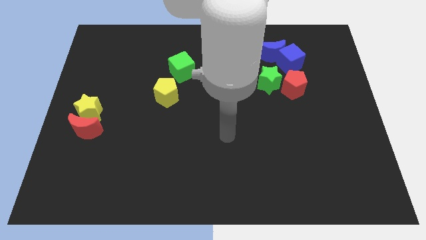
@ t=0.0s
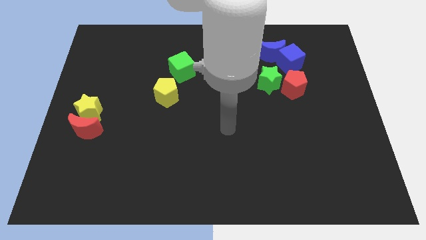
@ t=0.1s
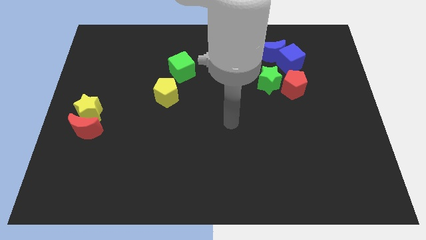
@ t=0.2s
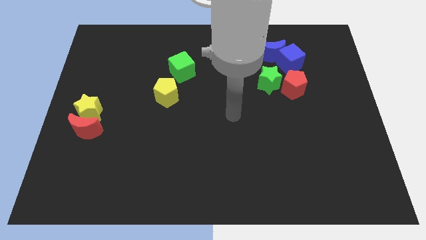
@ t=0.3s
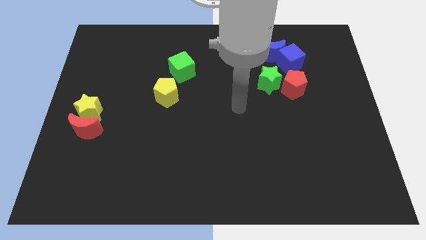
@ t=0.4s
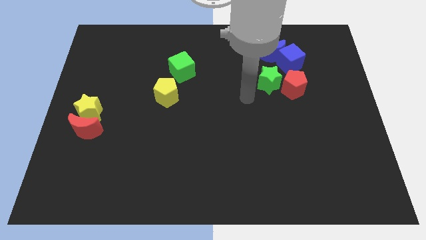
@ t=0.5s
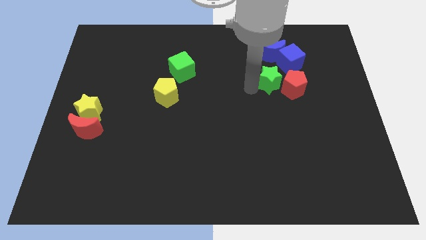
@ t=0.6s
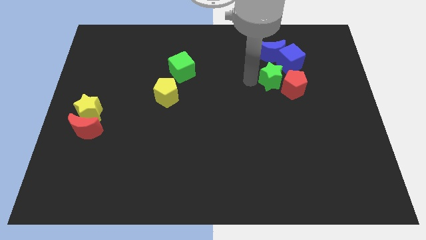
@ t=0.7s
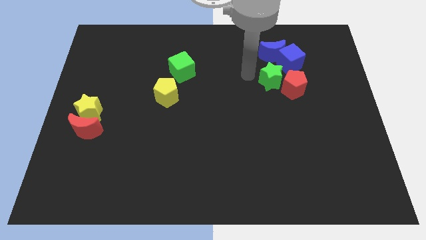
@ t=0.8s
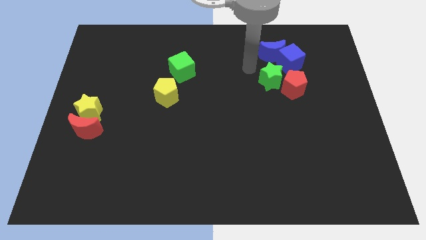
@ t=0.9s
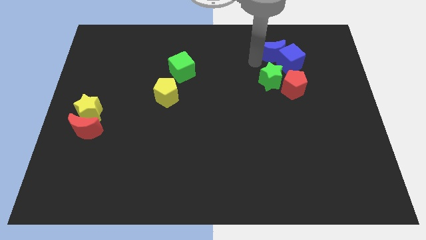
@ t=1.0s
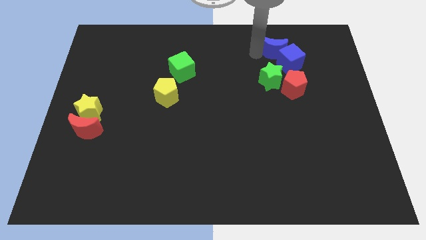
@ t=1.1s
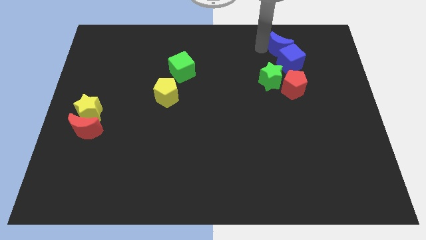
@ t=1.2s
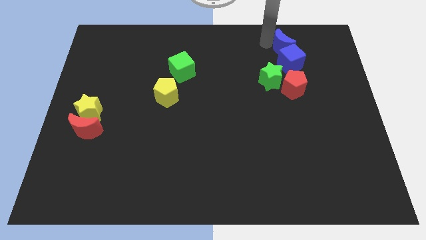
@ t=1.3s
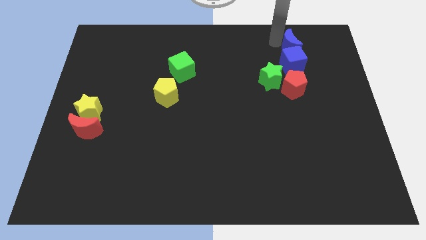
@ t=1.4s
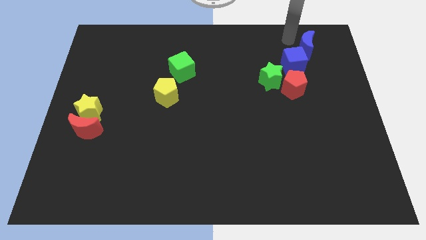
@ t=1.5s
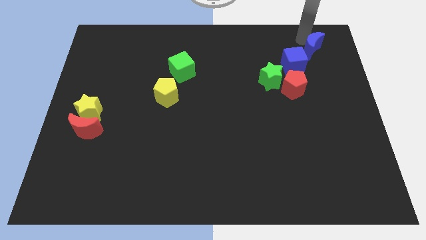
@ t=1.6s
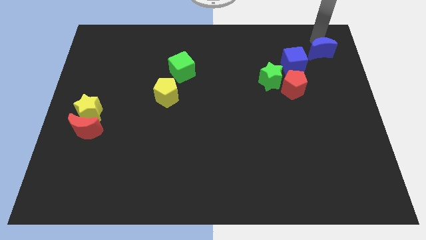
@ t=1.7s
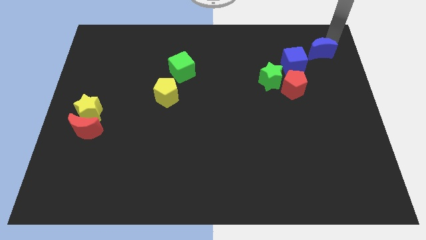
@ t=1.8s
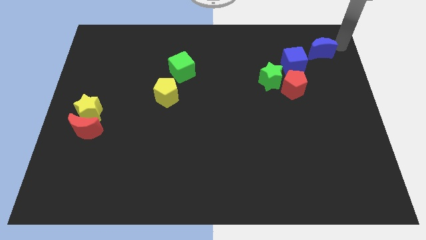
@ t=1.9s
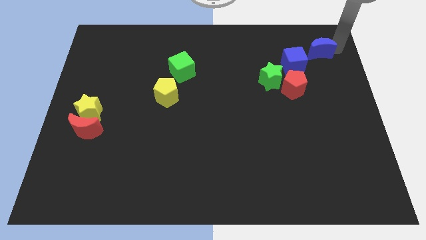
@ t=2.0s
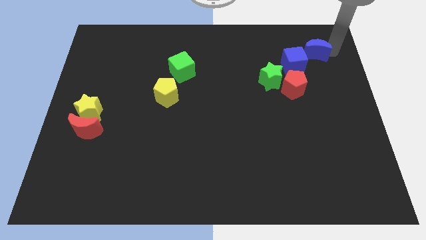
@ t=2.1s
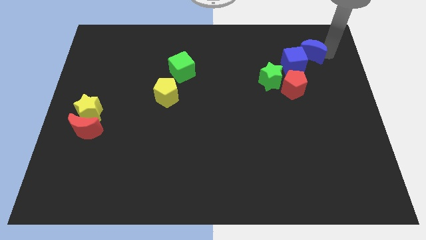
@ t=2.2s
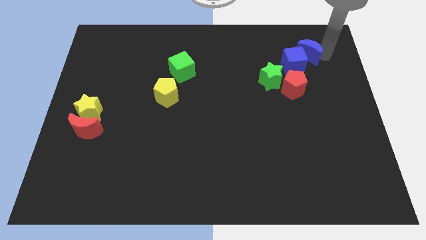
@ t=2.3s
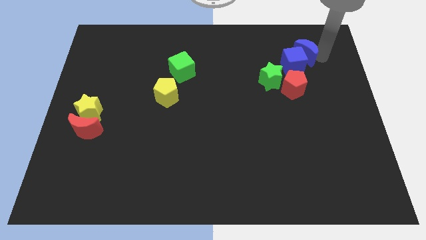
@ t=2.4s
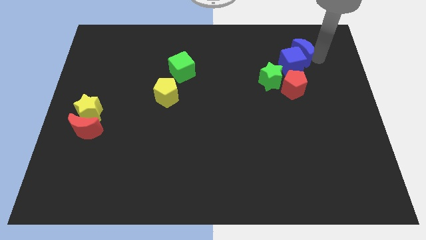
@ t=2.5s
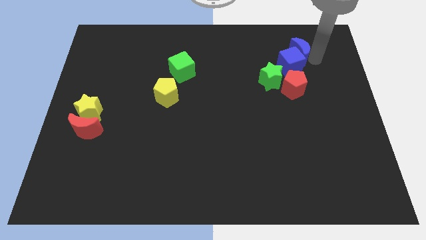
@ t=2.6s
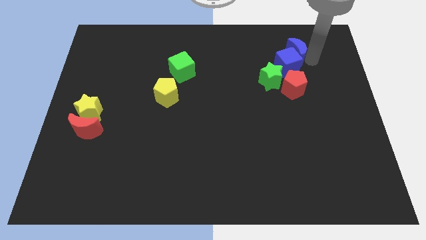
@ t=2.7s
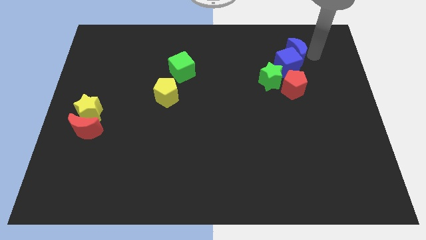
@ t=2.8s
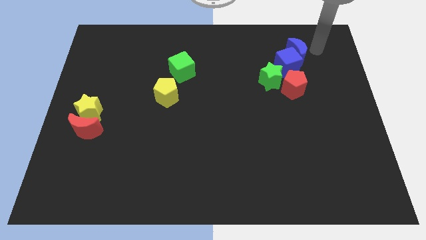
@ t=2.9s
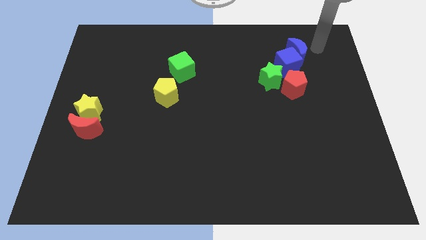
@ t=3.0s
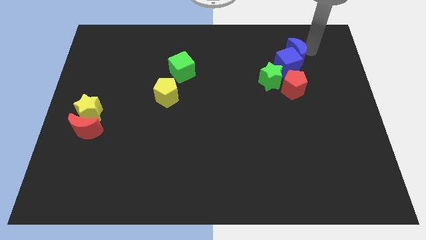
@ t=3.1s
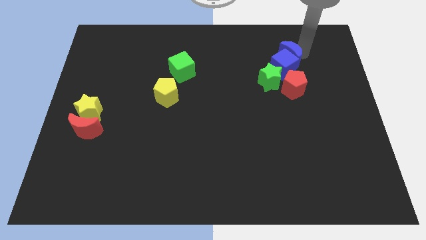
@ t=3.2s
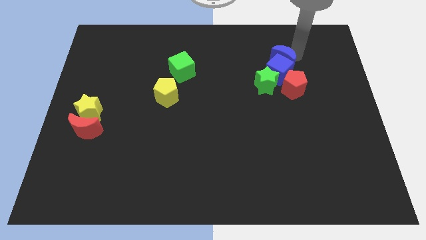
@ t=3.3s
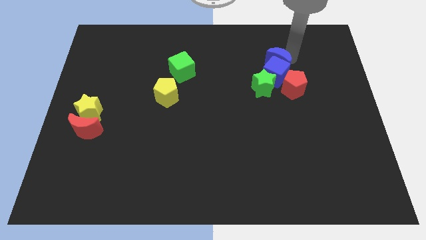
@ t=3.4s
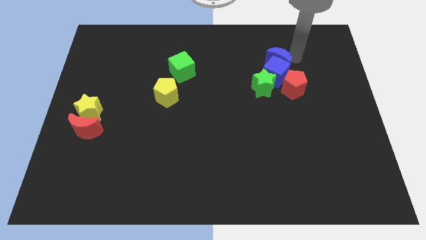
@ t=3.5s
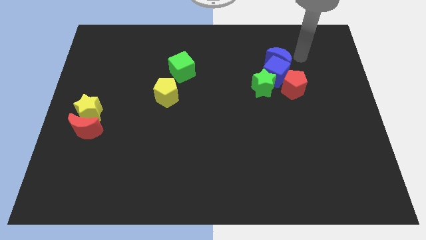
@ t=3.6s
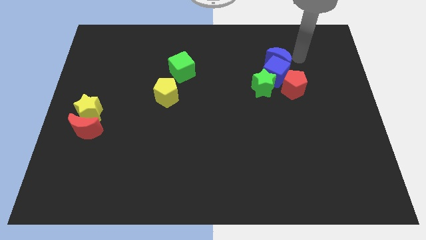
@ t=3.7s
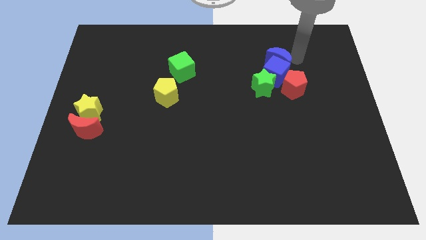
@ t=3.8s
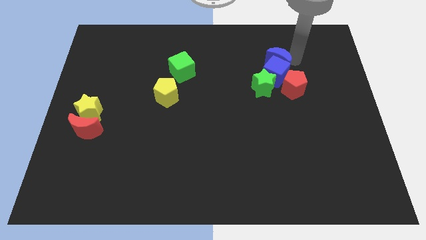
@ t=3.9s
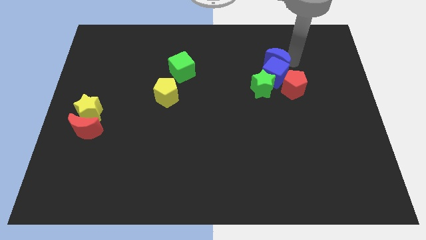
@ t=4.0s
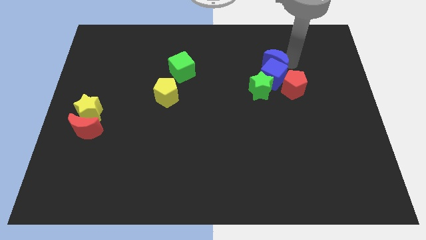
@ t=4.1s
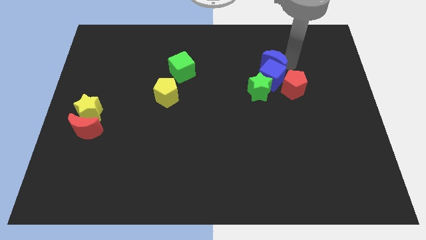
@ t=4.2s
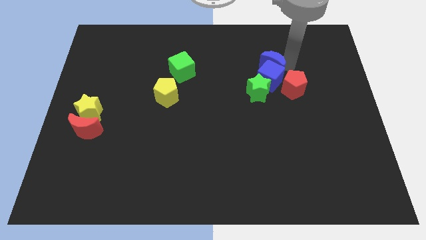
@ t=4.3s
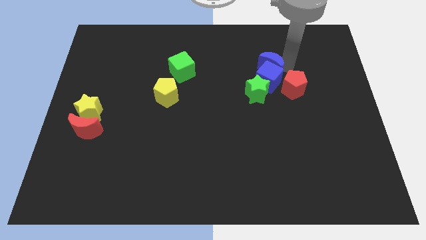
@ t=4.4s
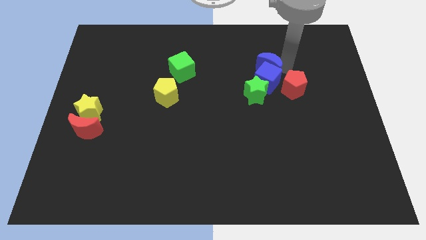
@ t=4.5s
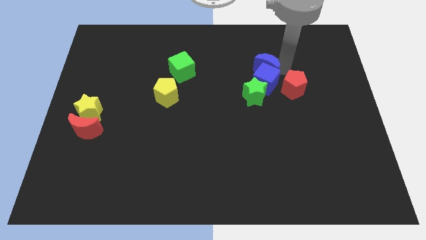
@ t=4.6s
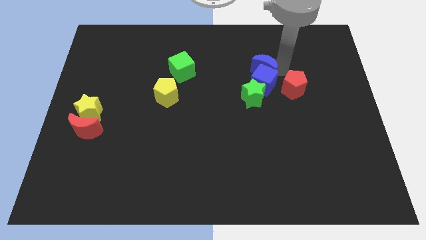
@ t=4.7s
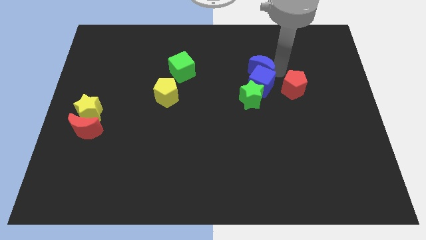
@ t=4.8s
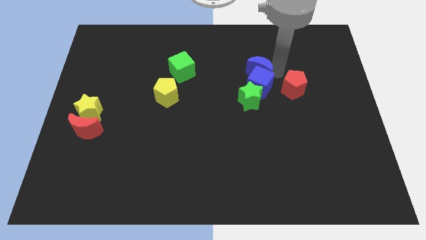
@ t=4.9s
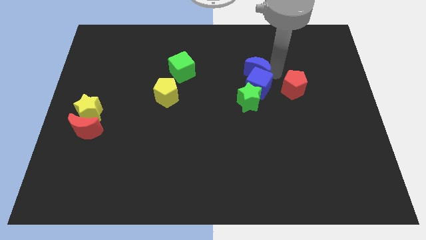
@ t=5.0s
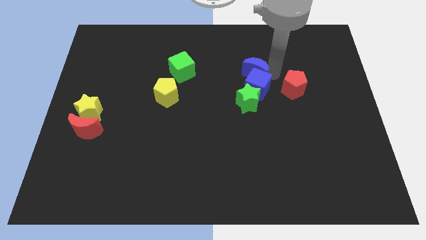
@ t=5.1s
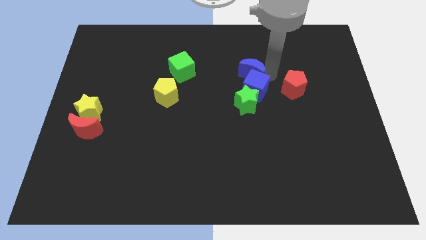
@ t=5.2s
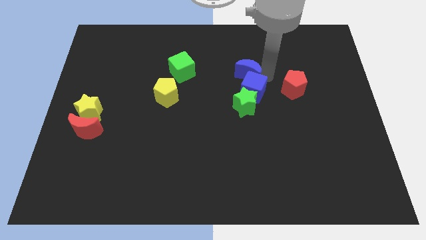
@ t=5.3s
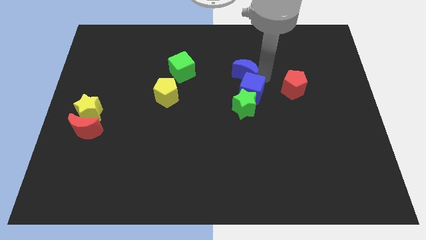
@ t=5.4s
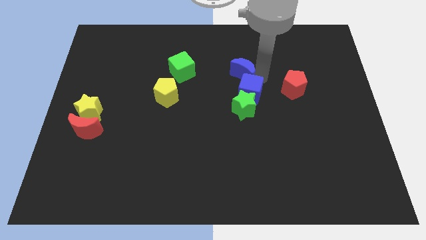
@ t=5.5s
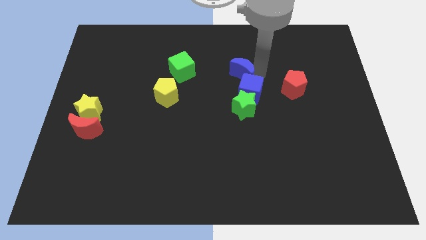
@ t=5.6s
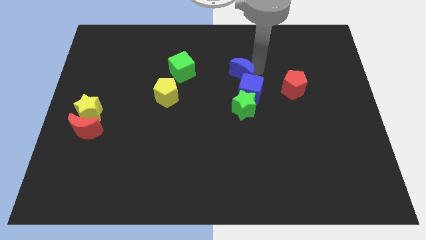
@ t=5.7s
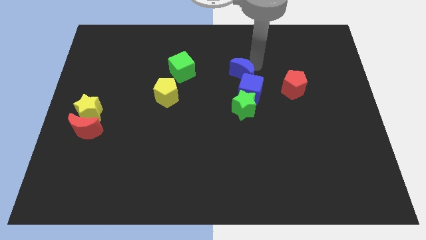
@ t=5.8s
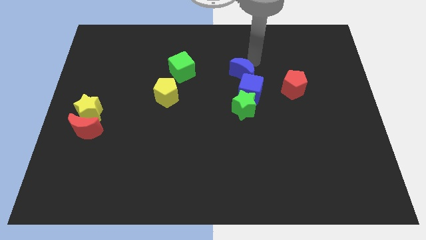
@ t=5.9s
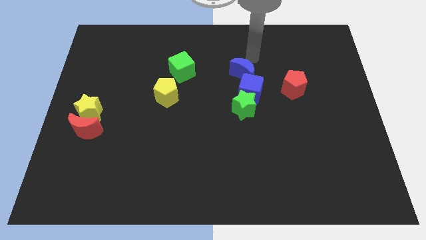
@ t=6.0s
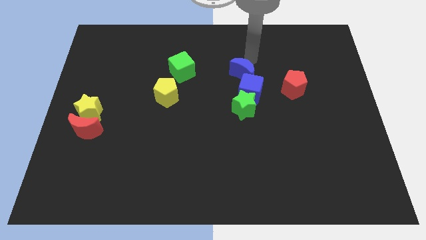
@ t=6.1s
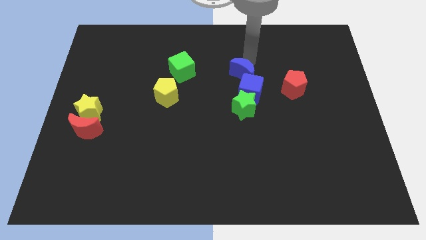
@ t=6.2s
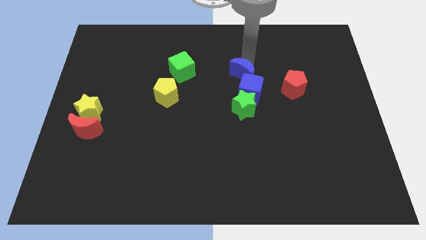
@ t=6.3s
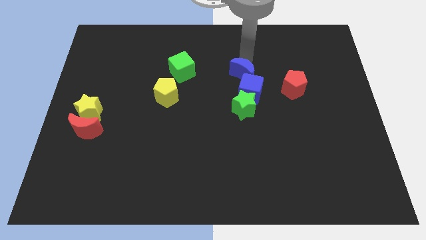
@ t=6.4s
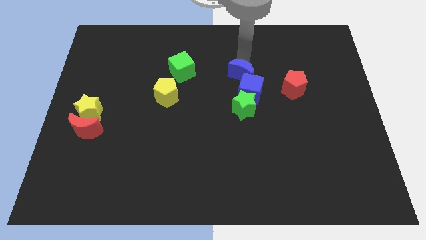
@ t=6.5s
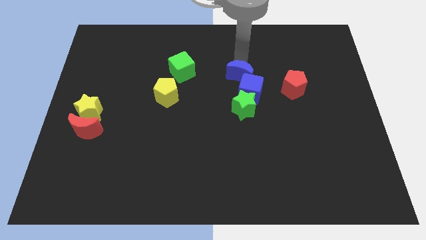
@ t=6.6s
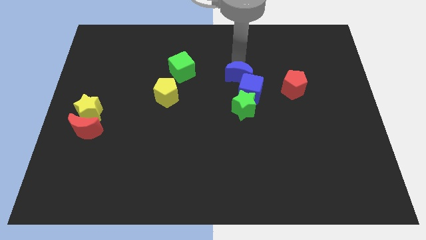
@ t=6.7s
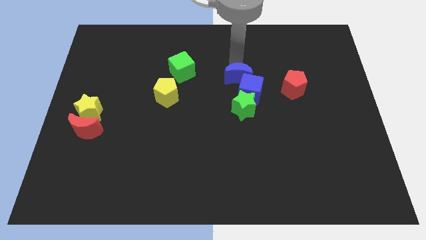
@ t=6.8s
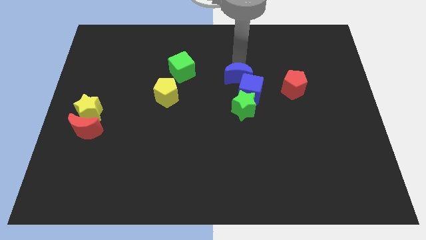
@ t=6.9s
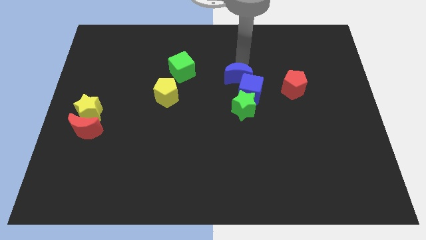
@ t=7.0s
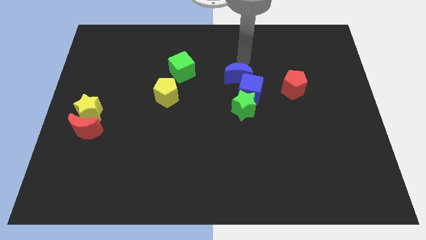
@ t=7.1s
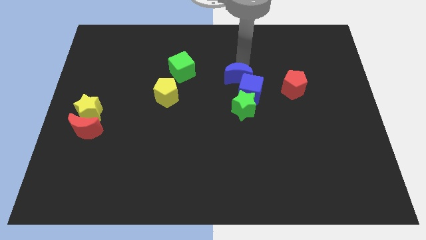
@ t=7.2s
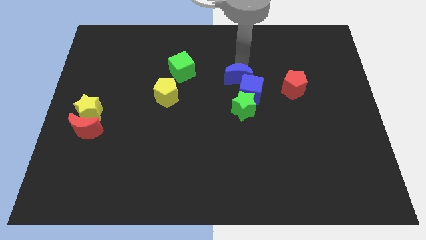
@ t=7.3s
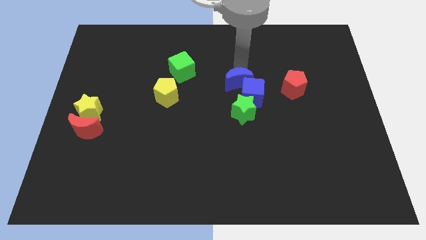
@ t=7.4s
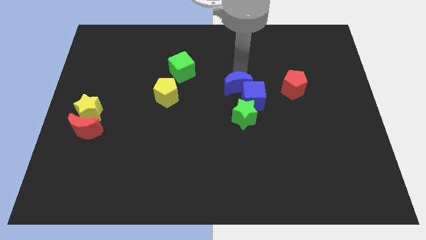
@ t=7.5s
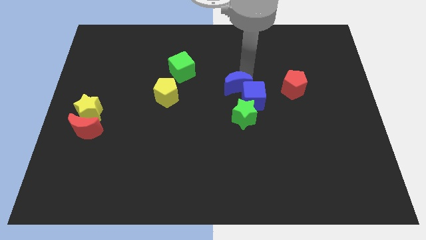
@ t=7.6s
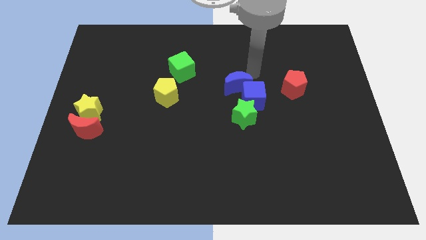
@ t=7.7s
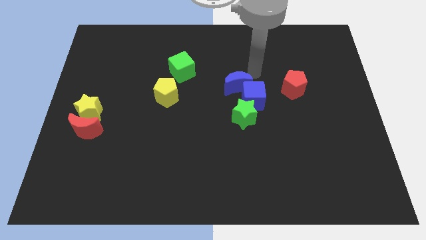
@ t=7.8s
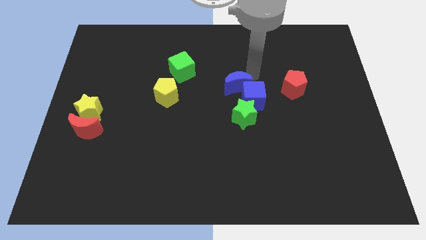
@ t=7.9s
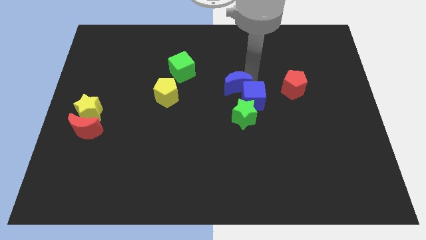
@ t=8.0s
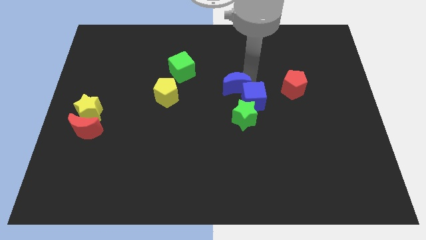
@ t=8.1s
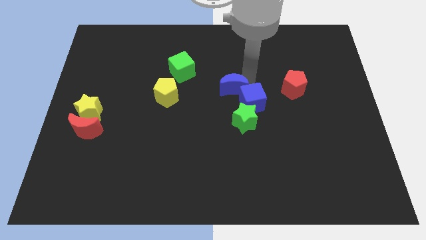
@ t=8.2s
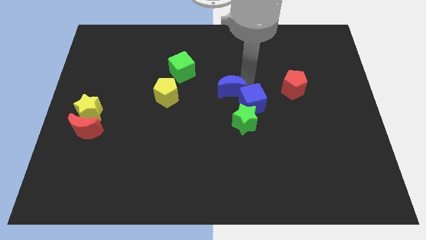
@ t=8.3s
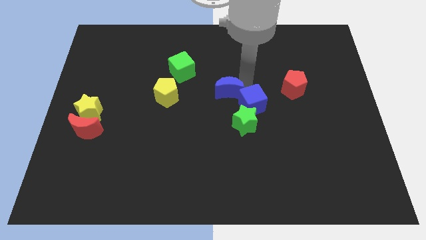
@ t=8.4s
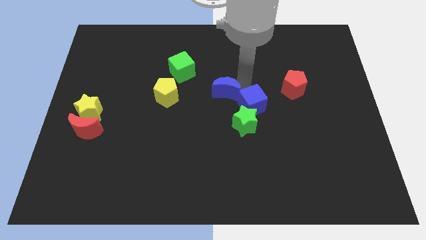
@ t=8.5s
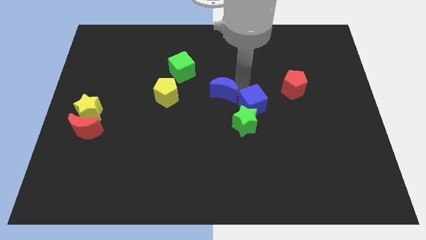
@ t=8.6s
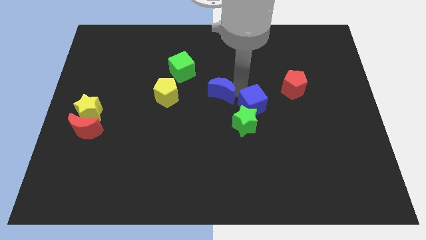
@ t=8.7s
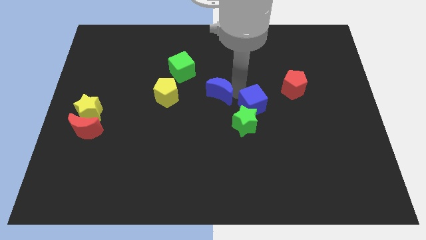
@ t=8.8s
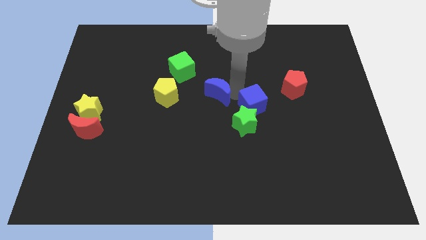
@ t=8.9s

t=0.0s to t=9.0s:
slide the blue moon down and left
